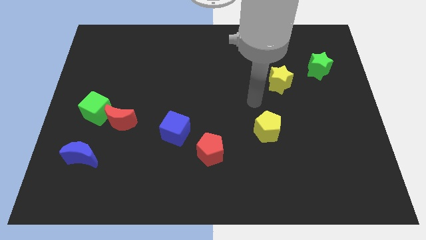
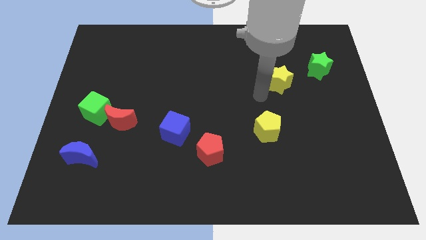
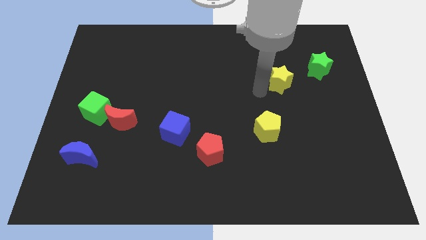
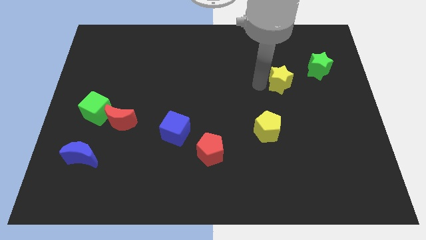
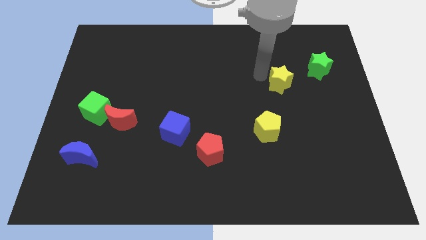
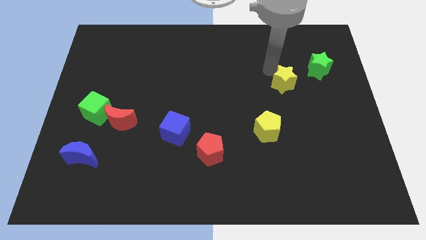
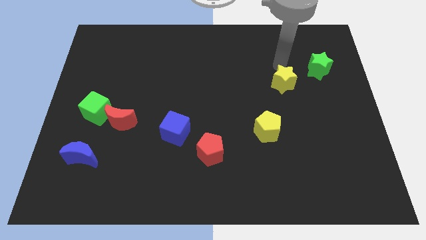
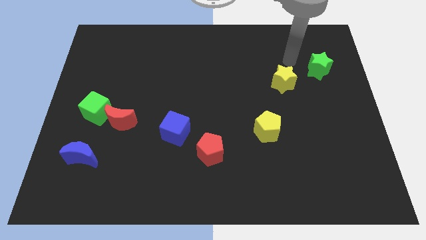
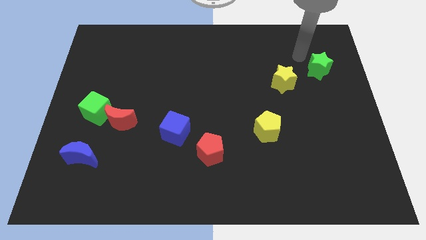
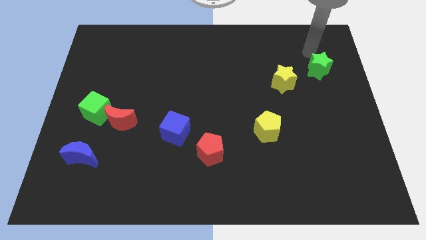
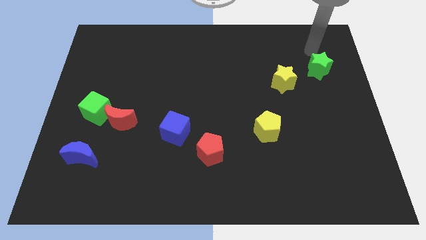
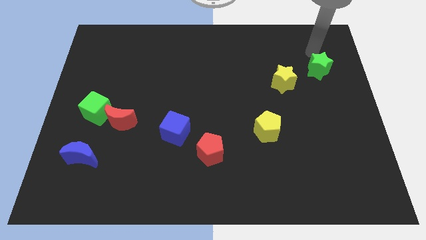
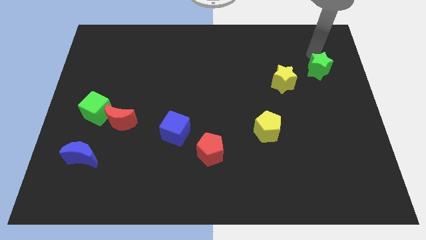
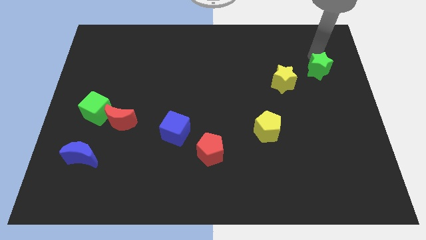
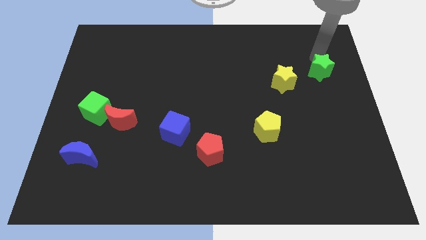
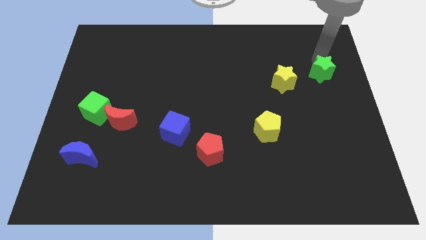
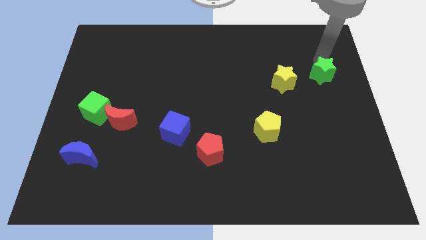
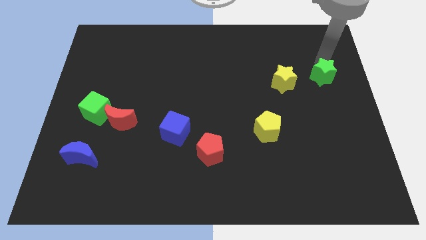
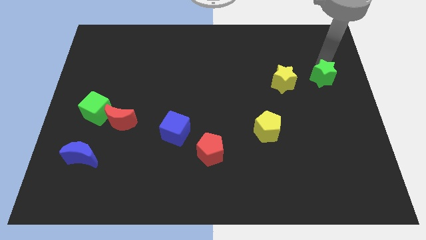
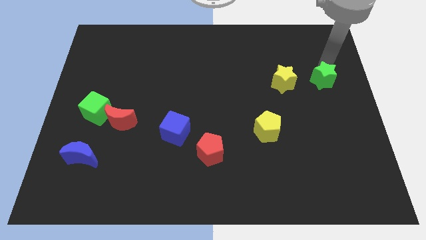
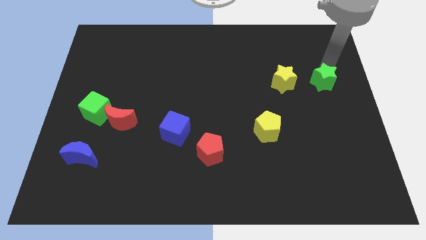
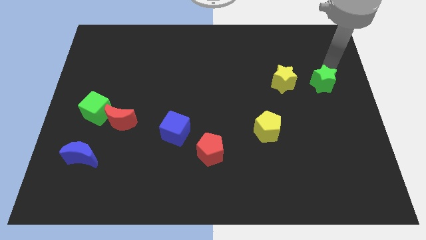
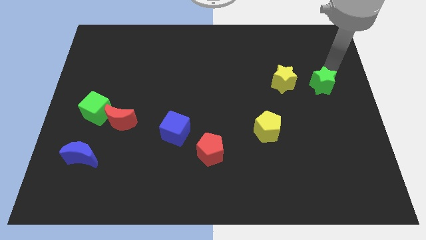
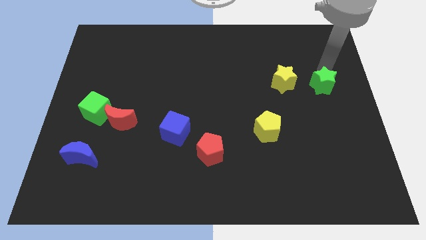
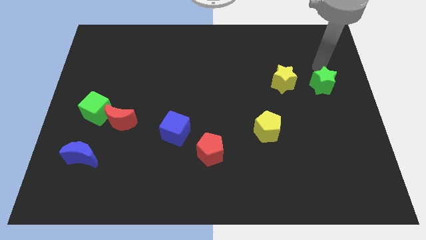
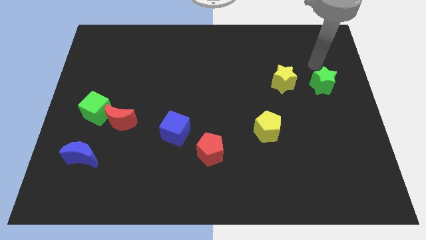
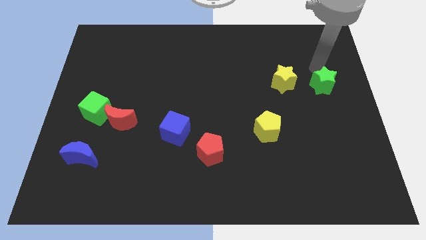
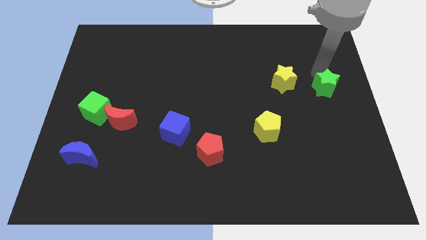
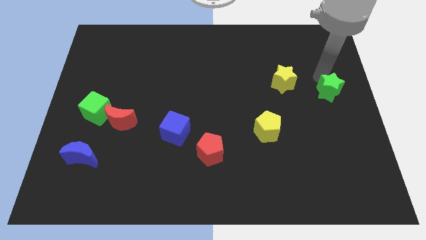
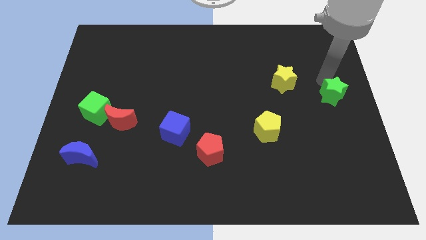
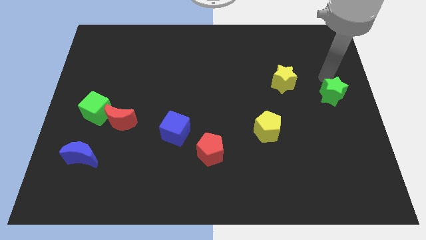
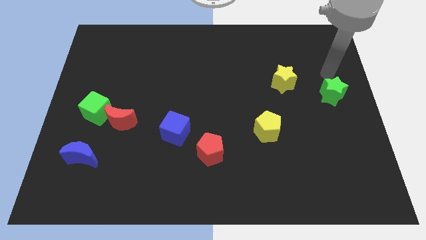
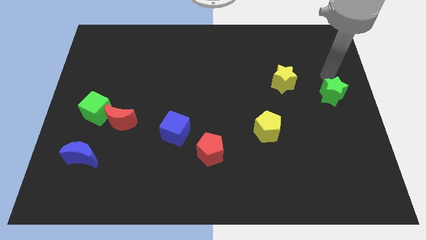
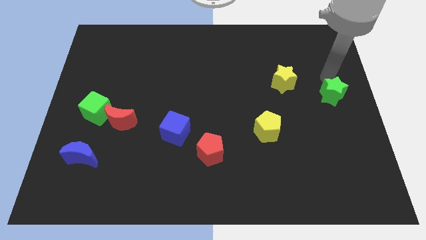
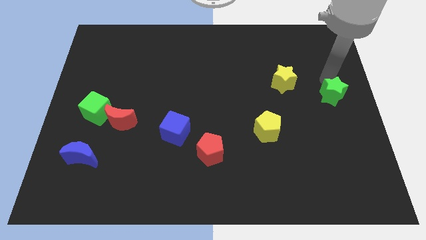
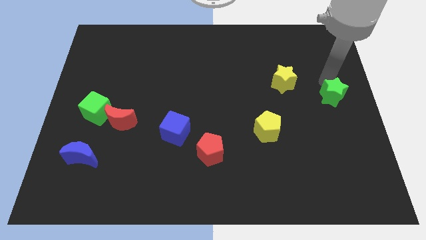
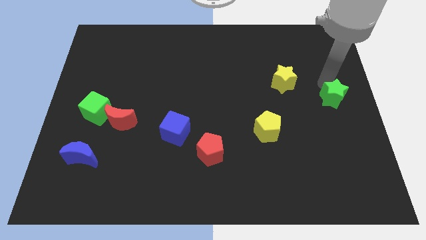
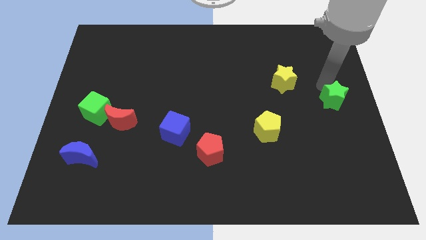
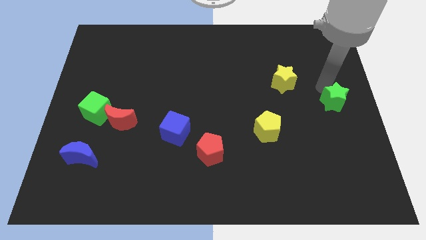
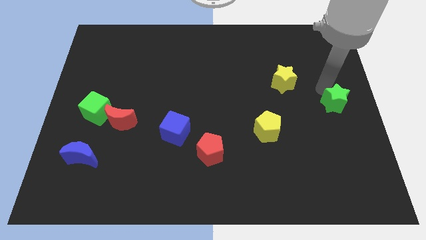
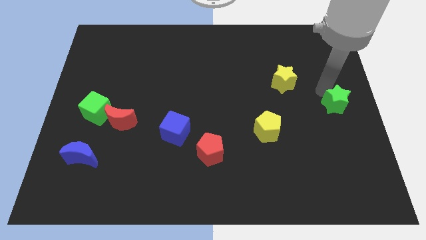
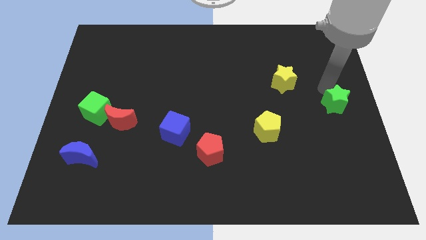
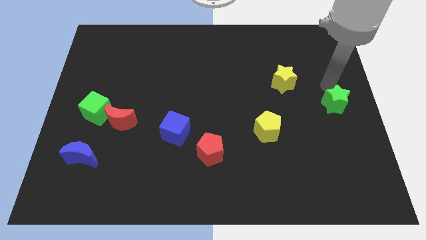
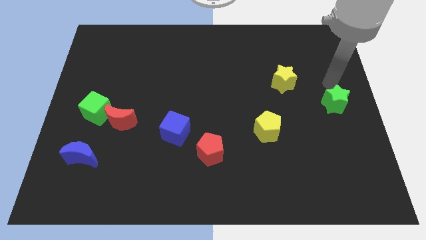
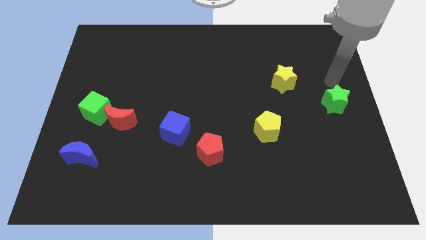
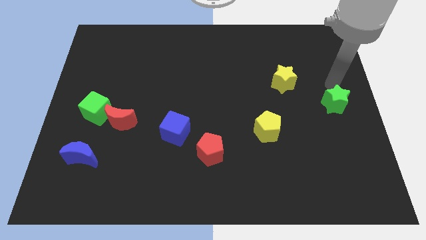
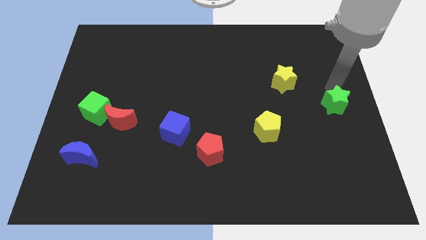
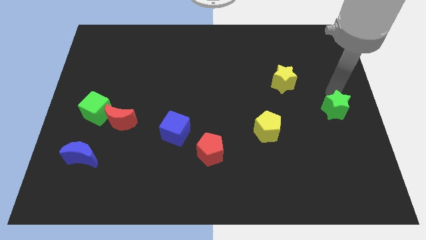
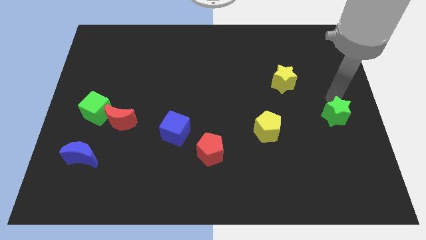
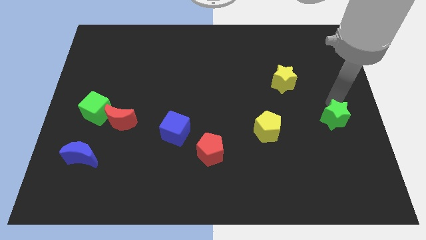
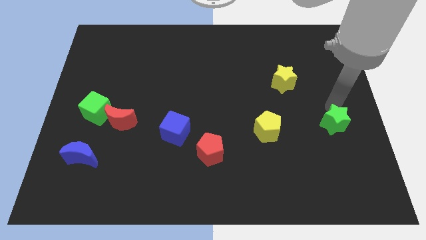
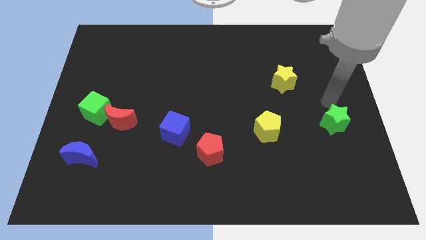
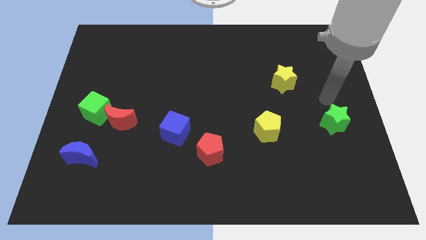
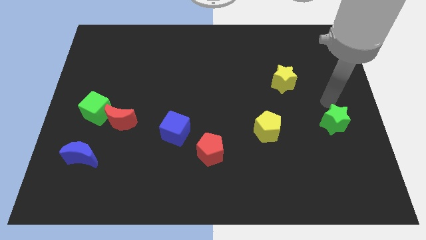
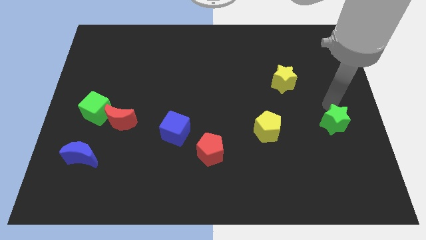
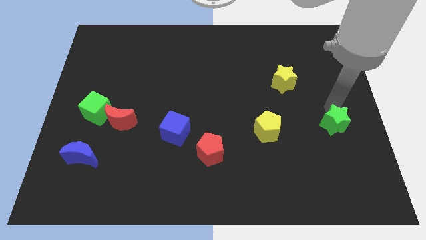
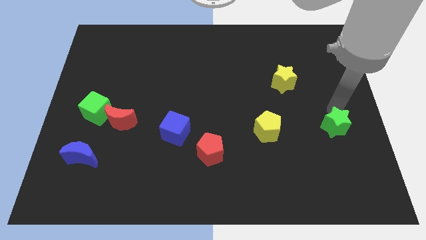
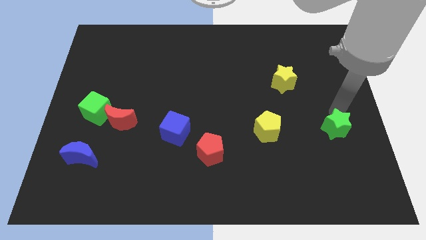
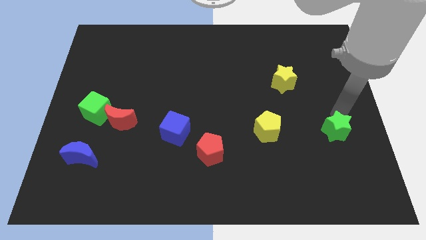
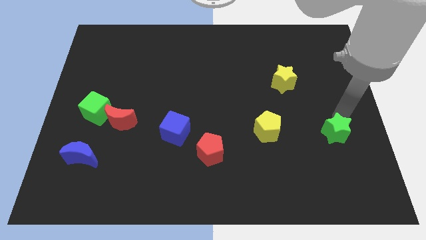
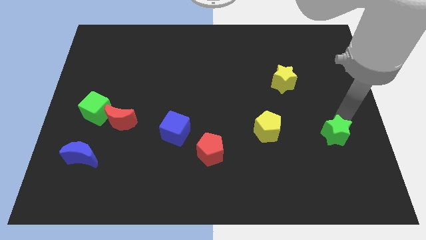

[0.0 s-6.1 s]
slide the green star down

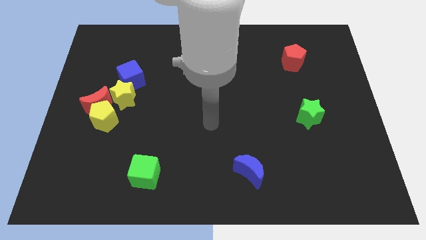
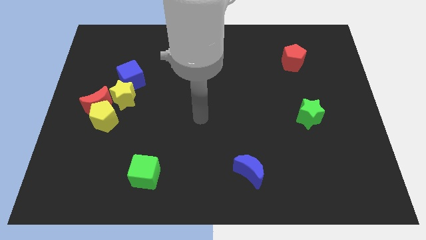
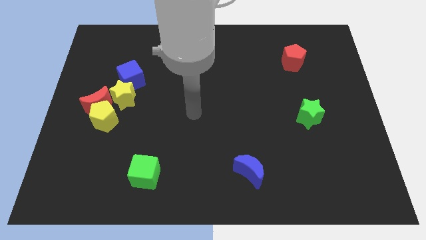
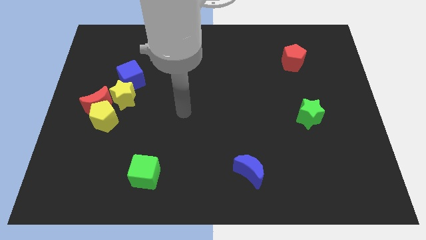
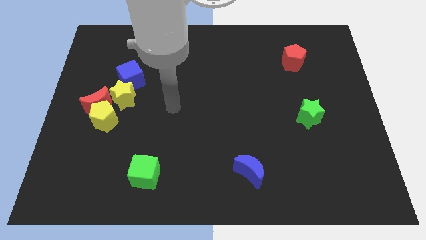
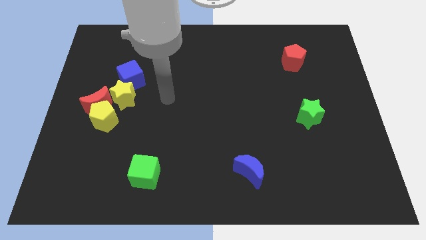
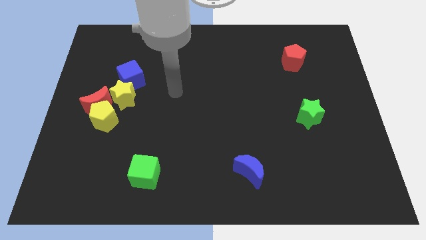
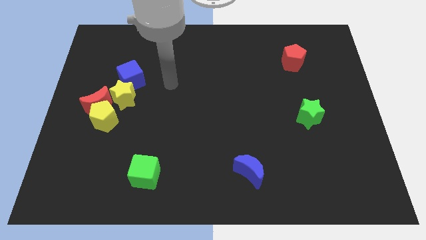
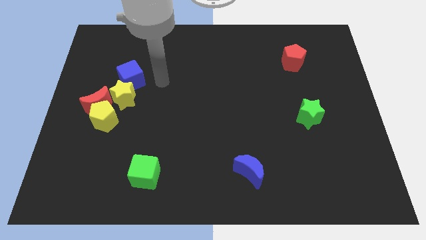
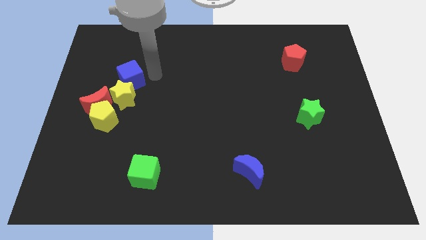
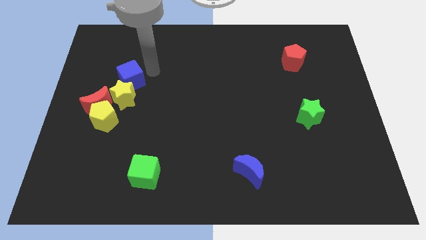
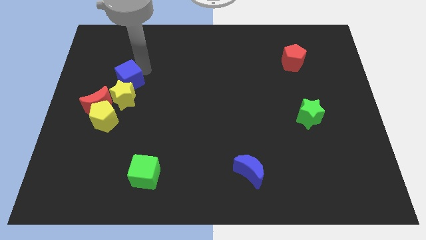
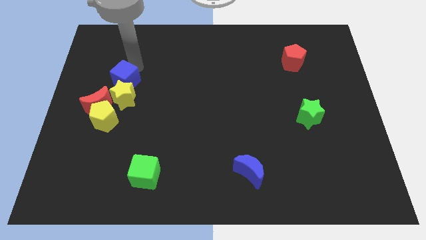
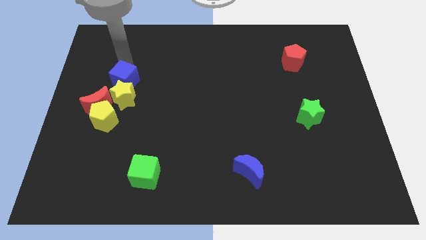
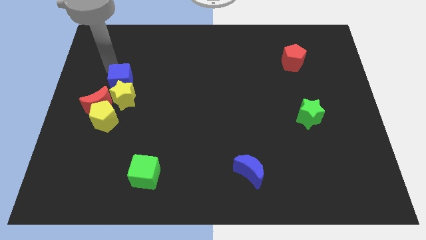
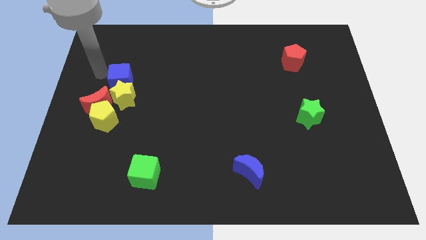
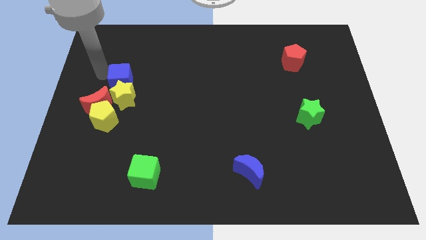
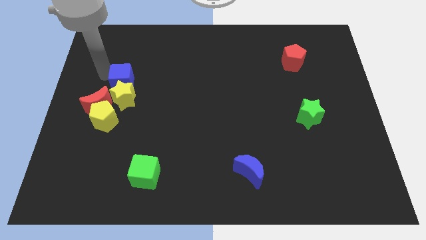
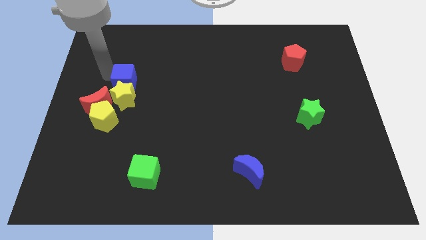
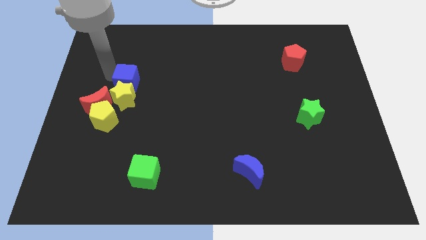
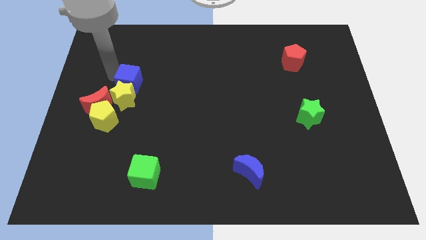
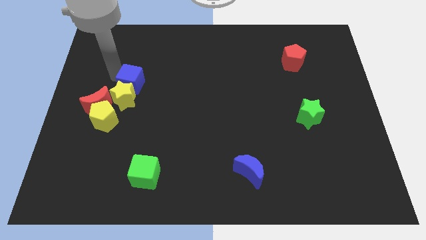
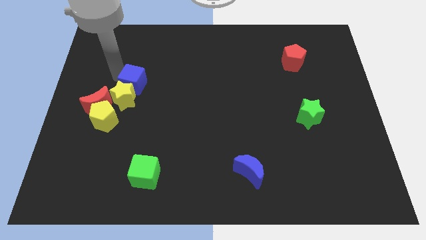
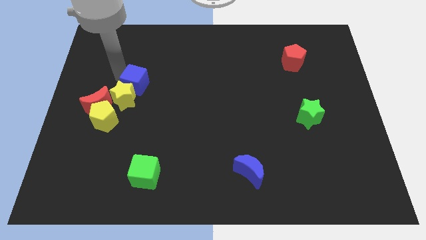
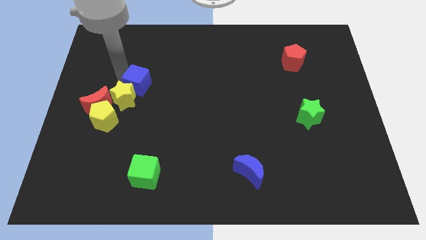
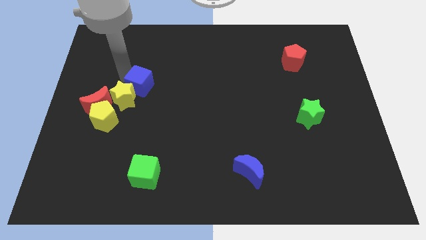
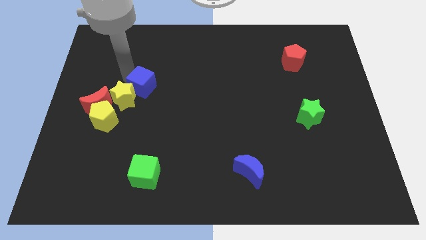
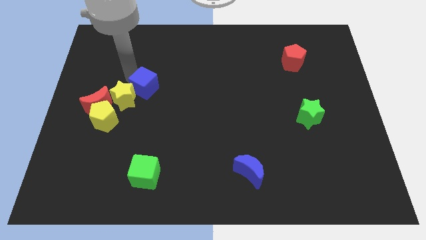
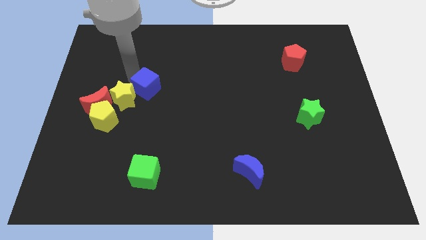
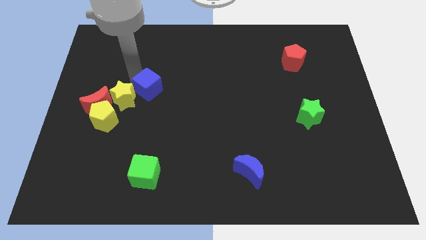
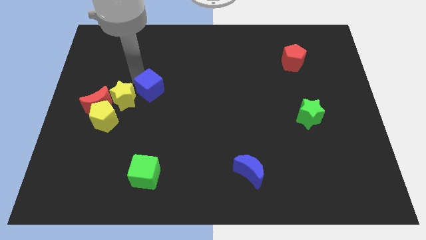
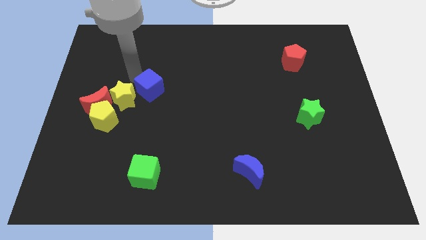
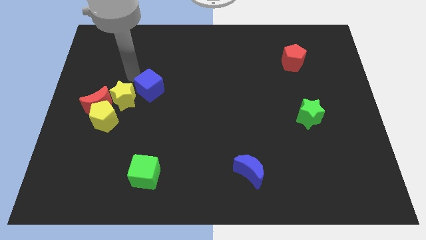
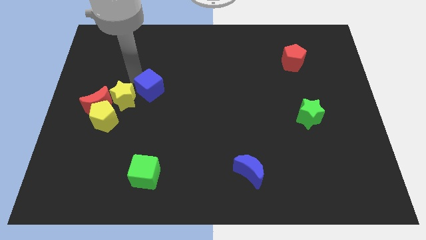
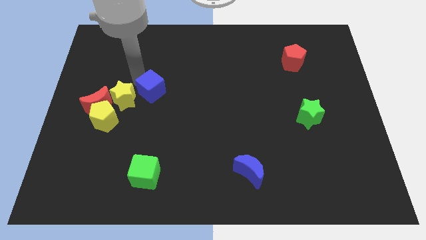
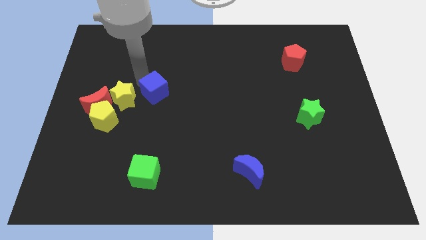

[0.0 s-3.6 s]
slide the blue cube slightly down and to the right diagonally
